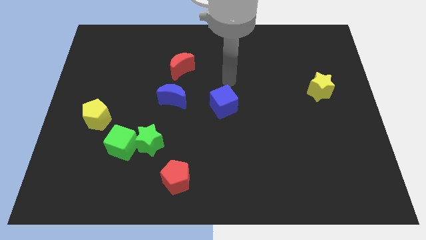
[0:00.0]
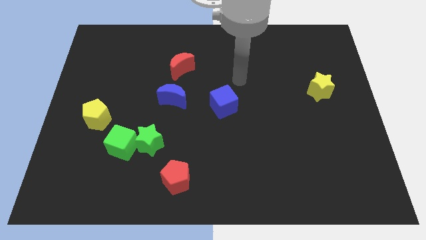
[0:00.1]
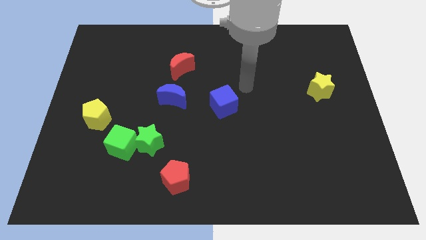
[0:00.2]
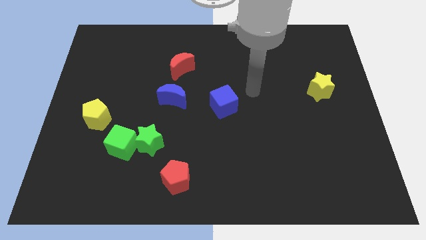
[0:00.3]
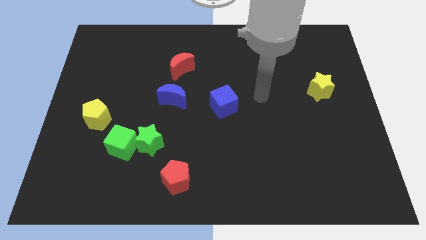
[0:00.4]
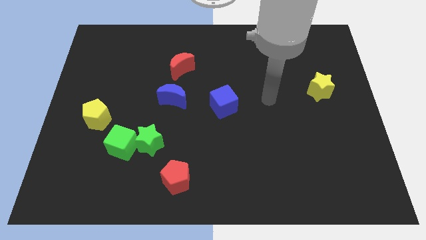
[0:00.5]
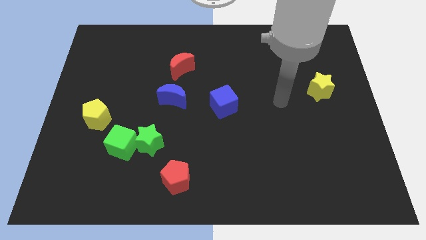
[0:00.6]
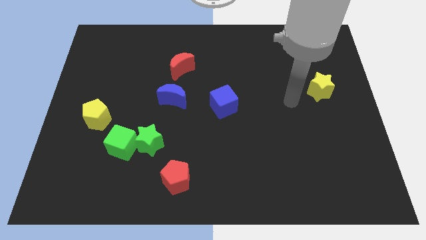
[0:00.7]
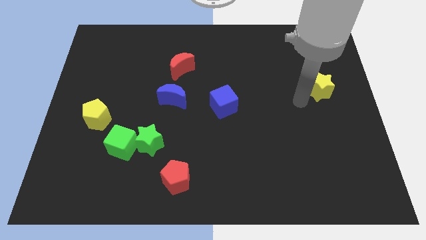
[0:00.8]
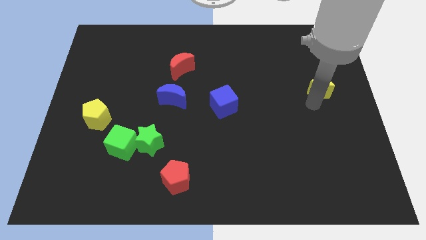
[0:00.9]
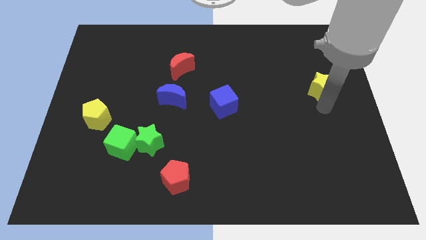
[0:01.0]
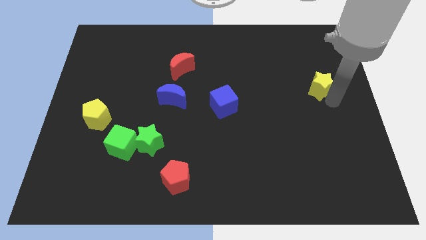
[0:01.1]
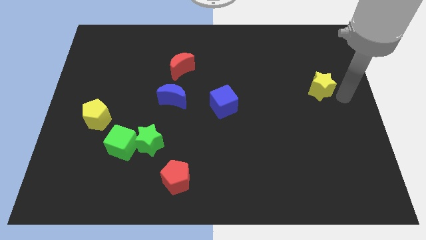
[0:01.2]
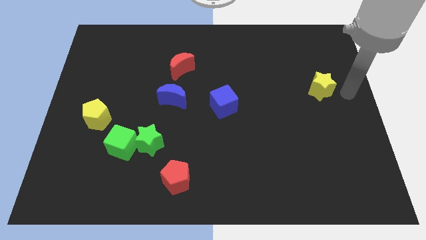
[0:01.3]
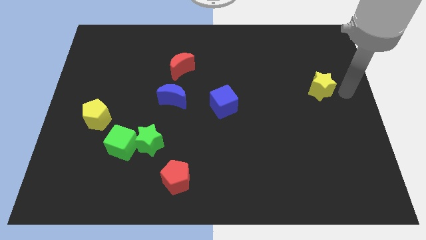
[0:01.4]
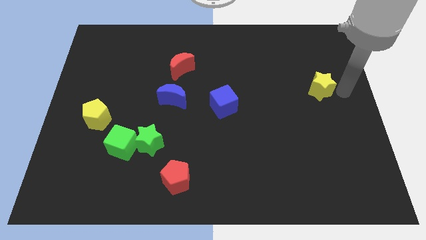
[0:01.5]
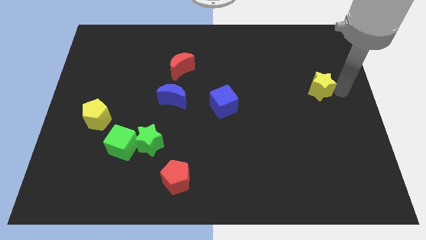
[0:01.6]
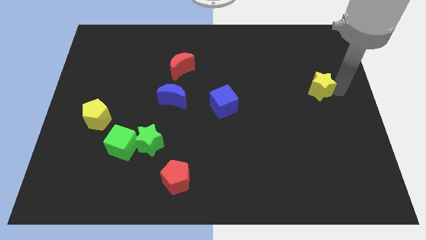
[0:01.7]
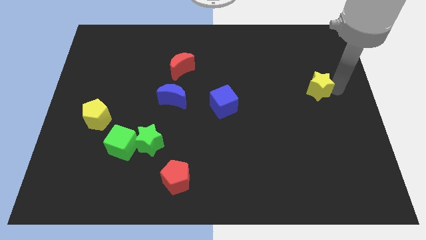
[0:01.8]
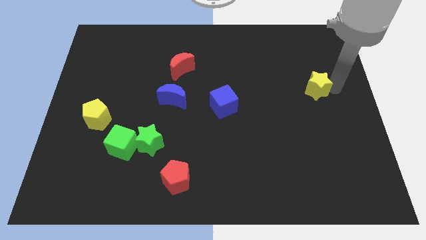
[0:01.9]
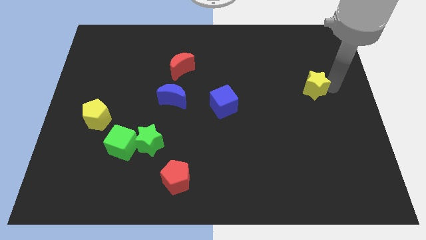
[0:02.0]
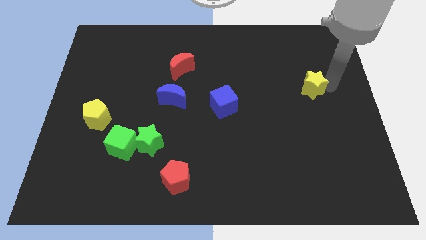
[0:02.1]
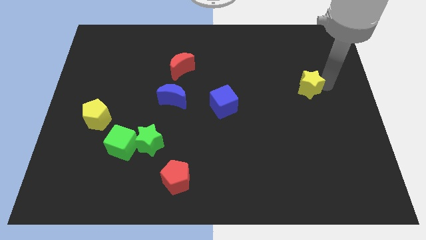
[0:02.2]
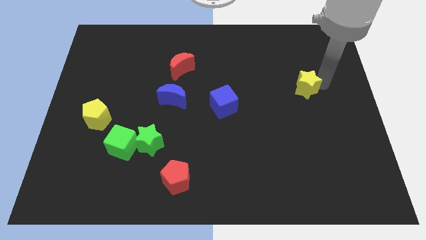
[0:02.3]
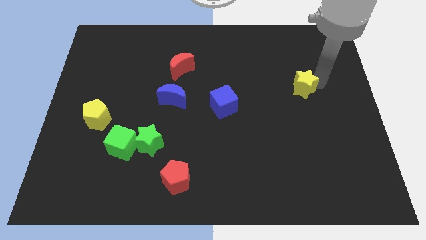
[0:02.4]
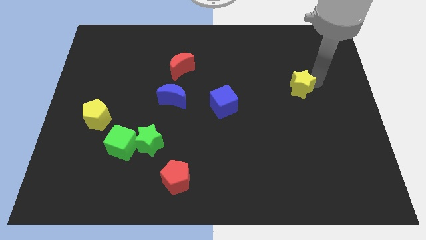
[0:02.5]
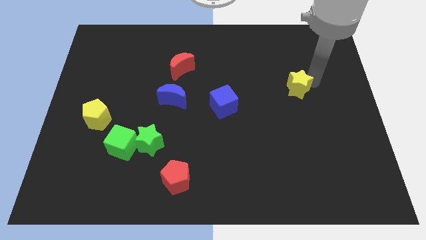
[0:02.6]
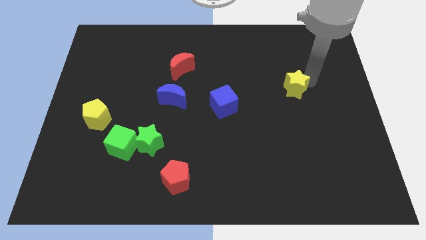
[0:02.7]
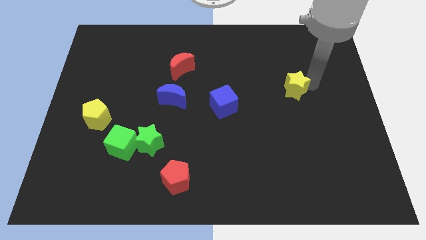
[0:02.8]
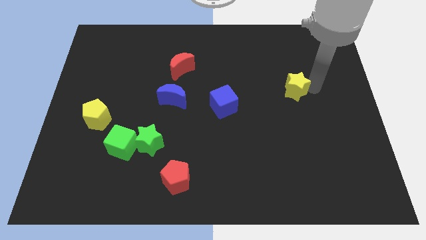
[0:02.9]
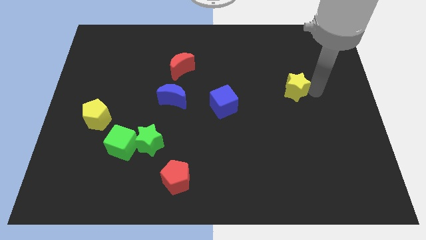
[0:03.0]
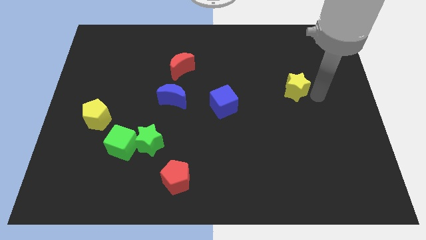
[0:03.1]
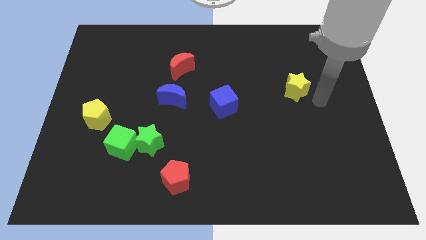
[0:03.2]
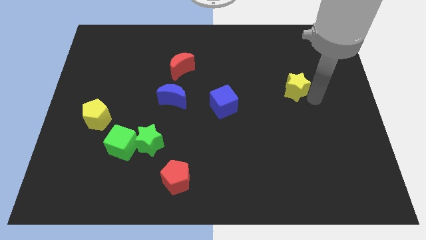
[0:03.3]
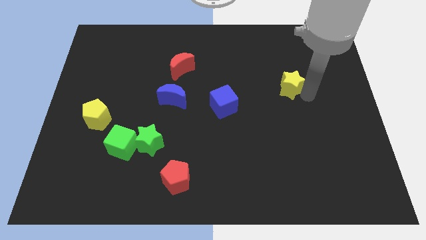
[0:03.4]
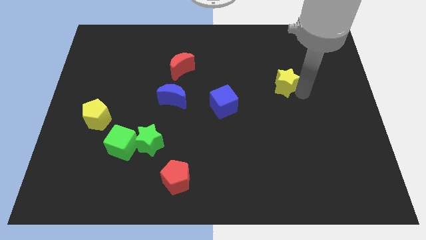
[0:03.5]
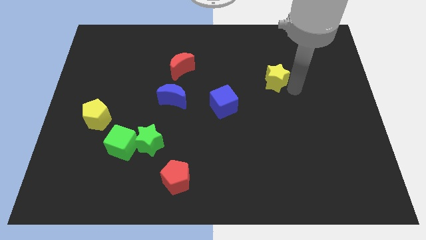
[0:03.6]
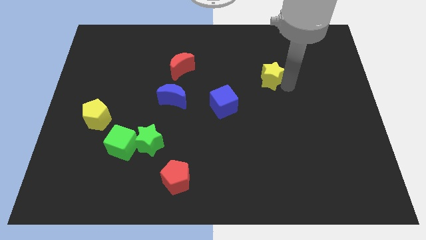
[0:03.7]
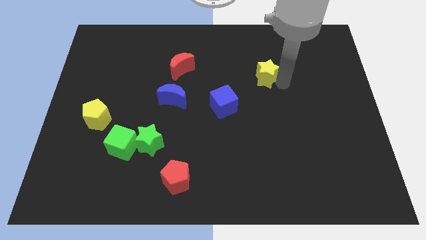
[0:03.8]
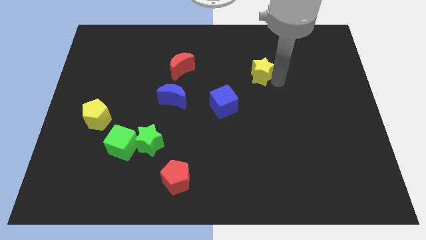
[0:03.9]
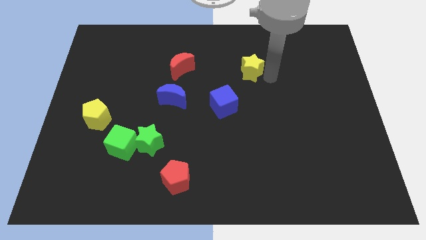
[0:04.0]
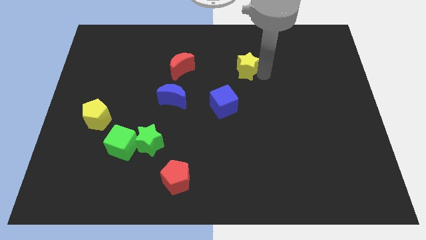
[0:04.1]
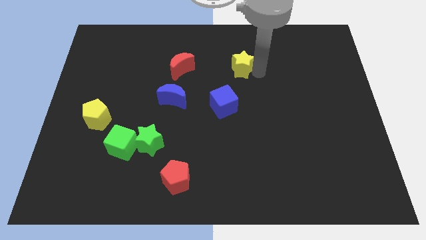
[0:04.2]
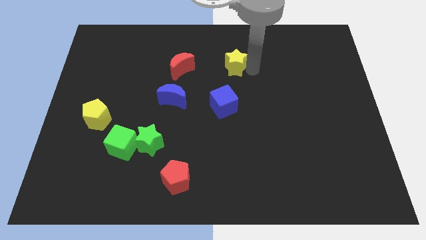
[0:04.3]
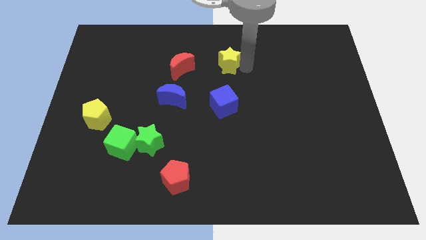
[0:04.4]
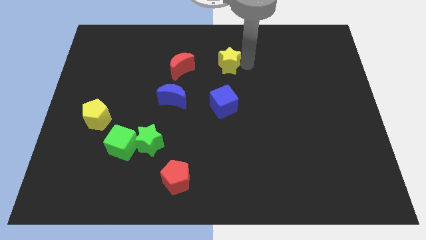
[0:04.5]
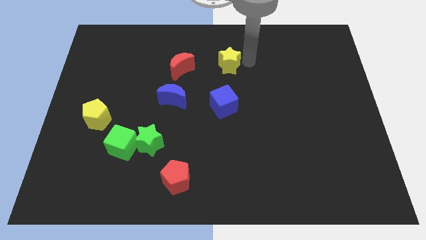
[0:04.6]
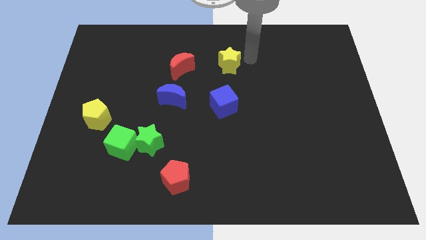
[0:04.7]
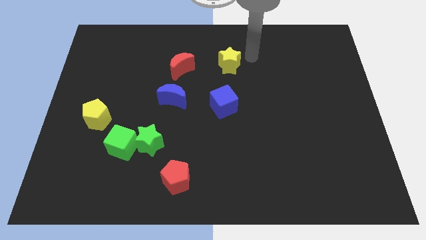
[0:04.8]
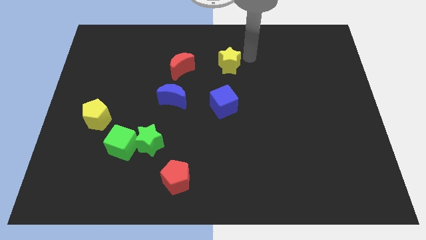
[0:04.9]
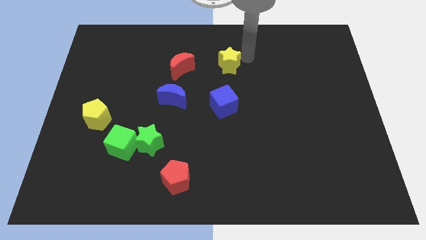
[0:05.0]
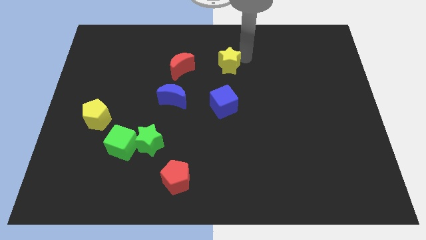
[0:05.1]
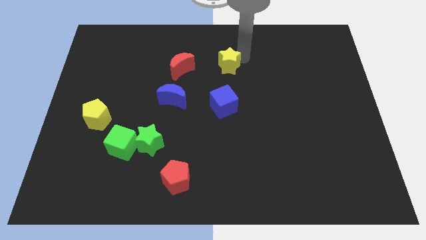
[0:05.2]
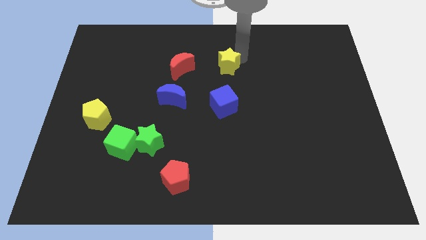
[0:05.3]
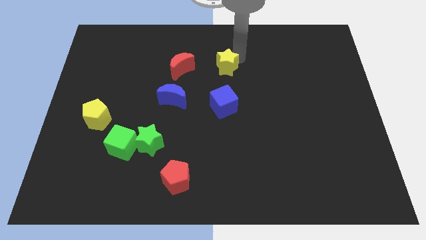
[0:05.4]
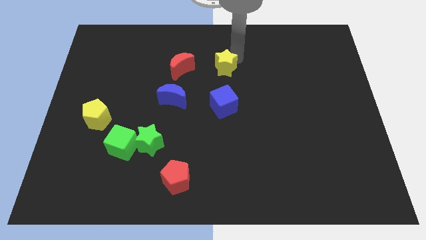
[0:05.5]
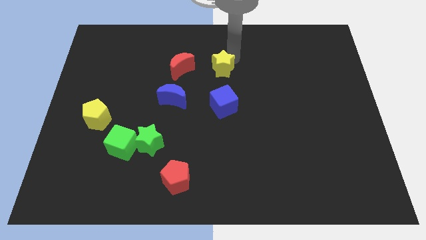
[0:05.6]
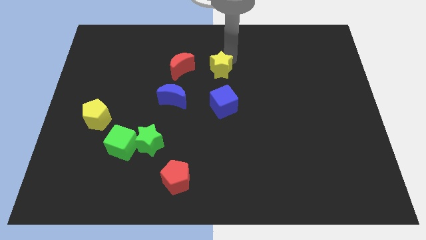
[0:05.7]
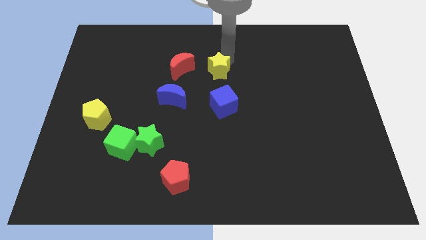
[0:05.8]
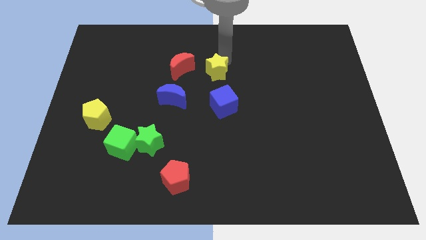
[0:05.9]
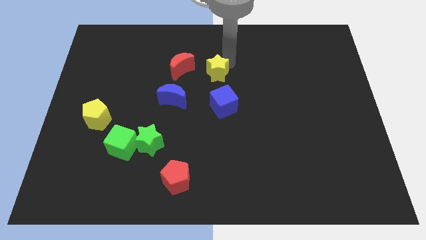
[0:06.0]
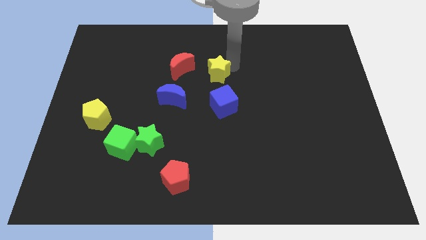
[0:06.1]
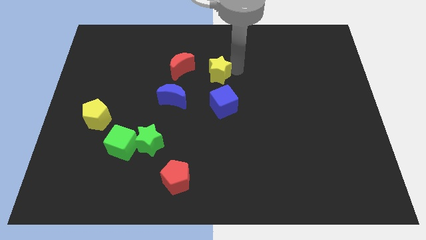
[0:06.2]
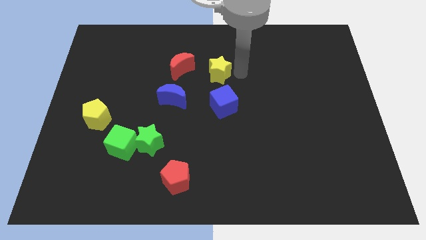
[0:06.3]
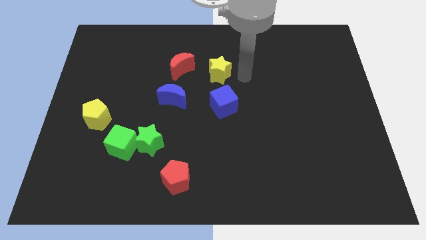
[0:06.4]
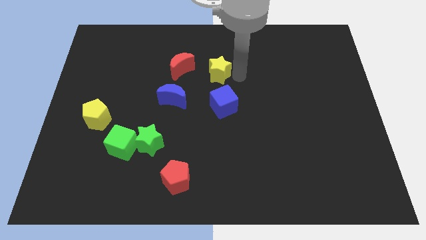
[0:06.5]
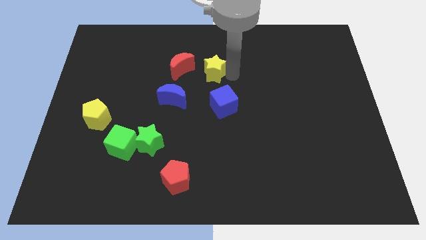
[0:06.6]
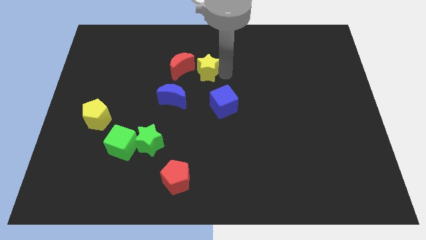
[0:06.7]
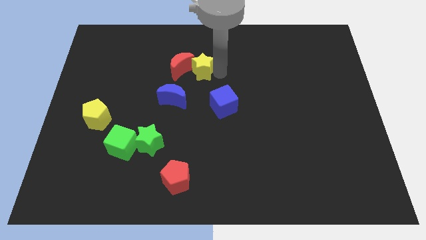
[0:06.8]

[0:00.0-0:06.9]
move the yellow star to the red moon

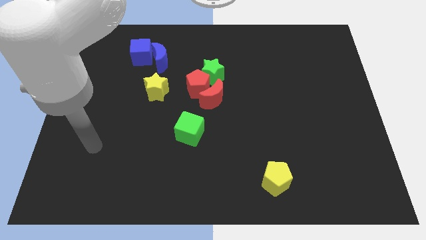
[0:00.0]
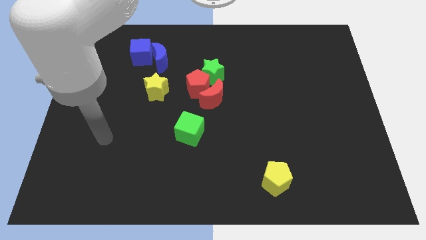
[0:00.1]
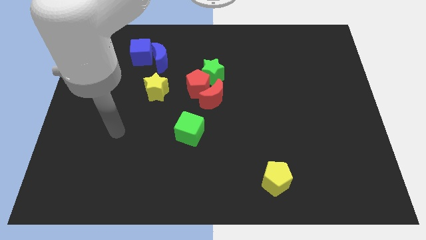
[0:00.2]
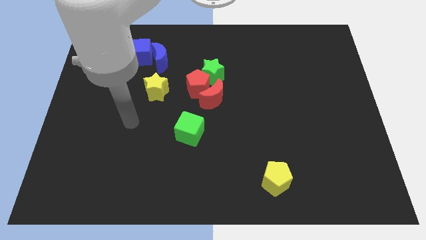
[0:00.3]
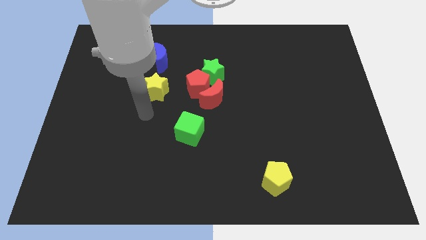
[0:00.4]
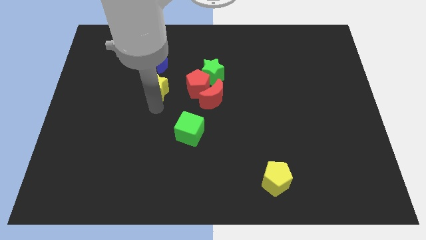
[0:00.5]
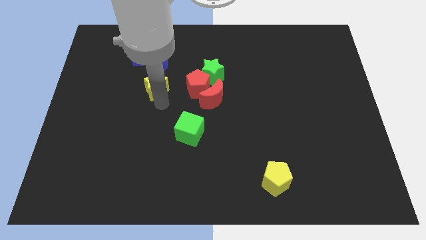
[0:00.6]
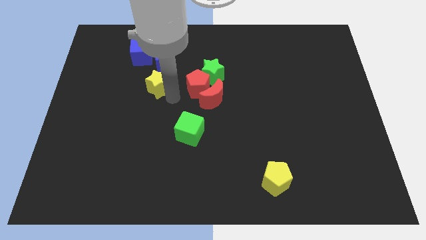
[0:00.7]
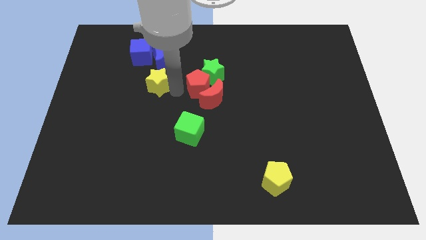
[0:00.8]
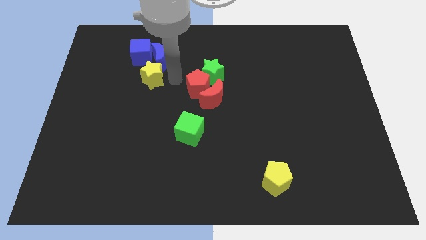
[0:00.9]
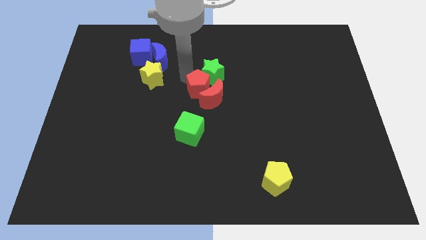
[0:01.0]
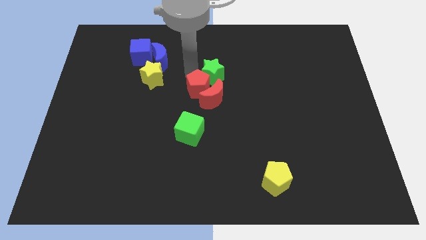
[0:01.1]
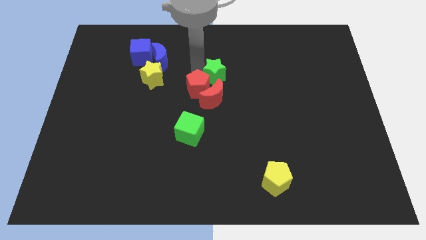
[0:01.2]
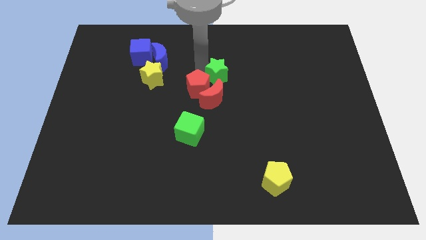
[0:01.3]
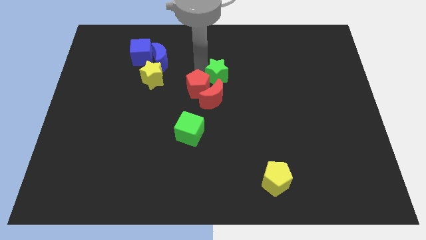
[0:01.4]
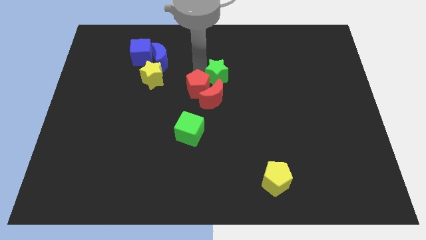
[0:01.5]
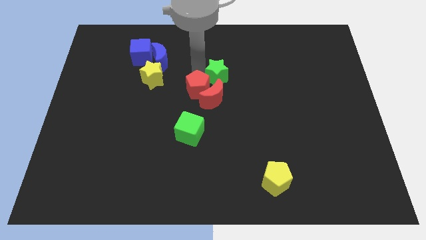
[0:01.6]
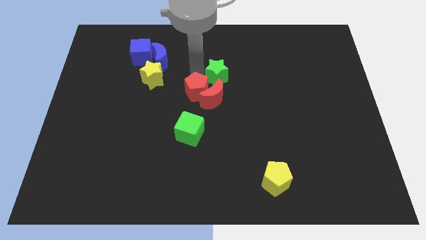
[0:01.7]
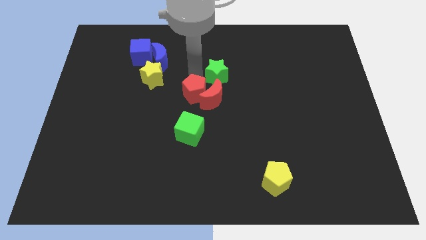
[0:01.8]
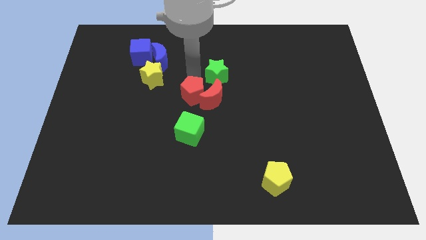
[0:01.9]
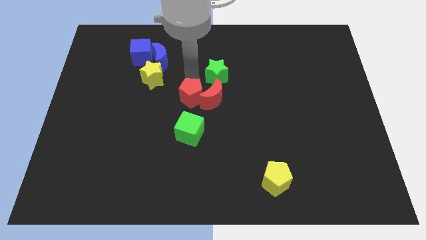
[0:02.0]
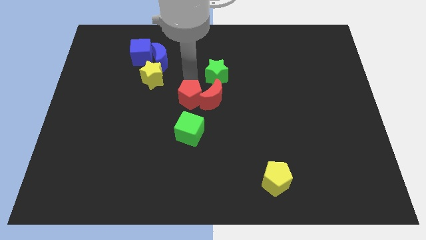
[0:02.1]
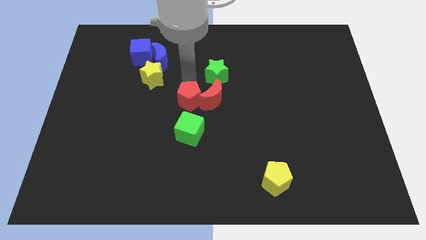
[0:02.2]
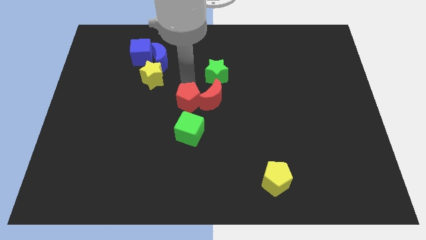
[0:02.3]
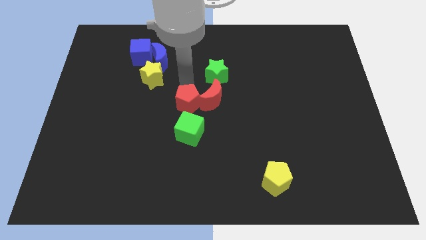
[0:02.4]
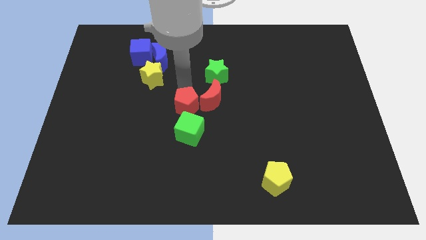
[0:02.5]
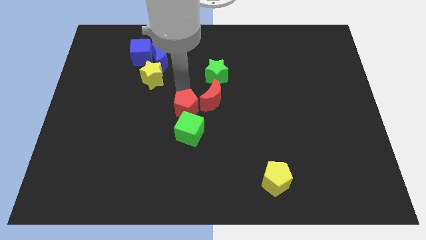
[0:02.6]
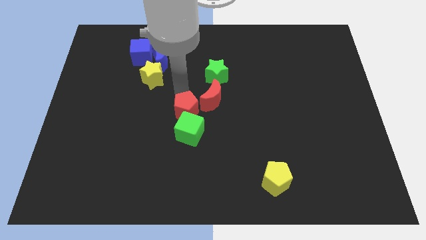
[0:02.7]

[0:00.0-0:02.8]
slide the red pentagon towards the green cube
